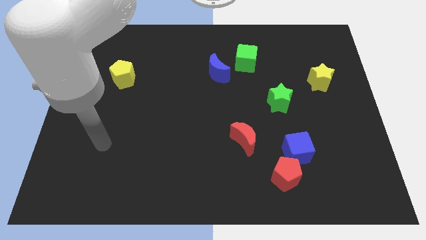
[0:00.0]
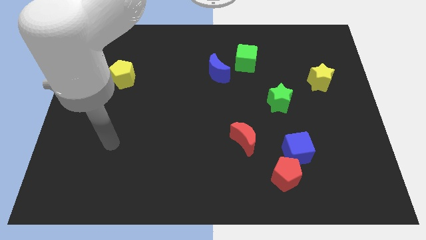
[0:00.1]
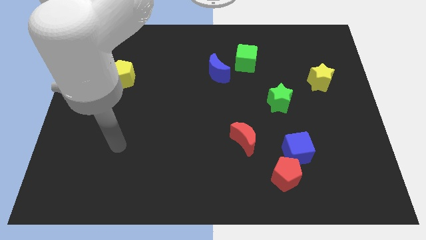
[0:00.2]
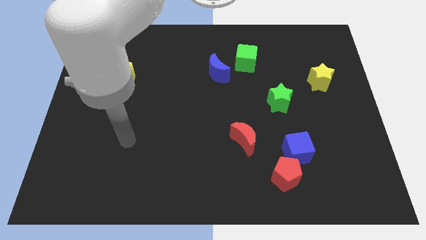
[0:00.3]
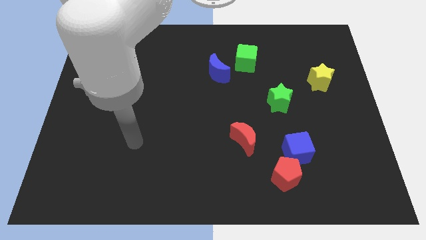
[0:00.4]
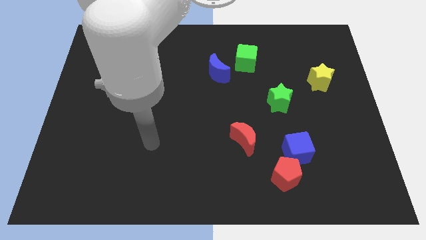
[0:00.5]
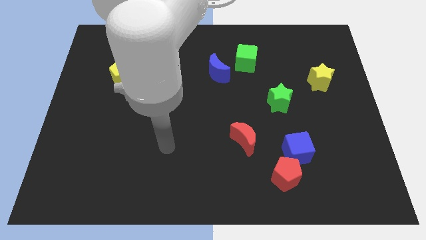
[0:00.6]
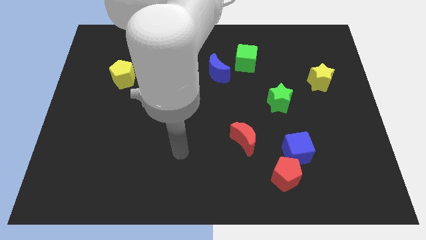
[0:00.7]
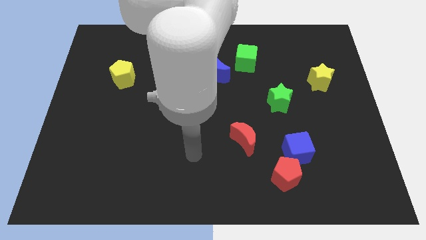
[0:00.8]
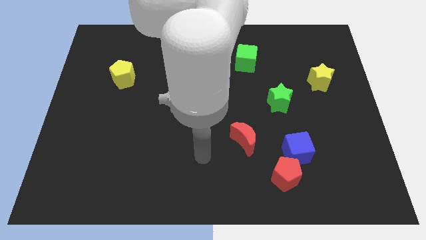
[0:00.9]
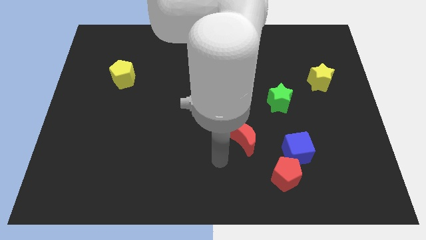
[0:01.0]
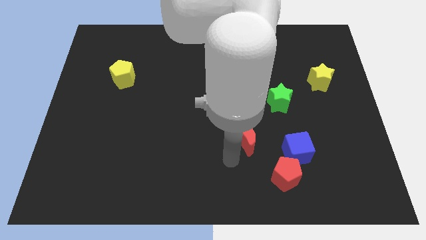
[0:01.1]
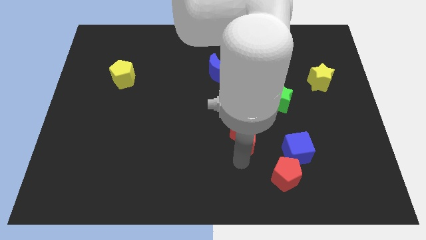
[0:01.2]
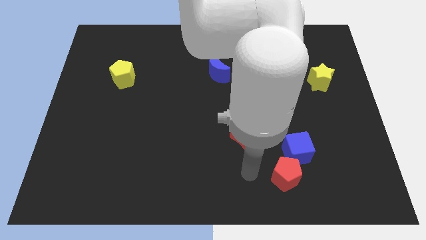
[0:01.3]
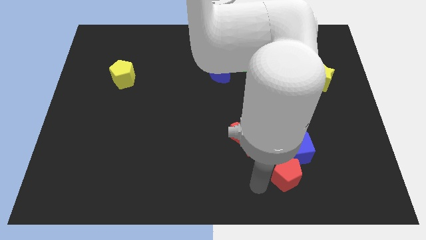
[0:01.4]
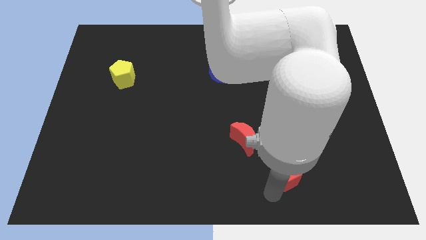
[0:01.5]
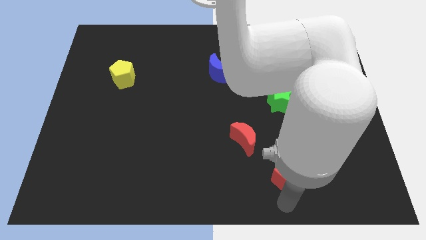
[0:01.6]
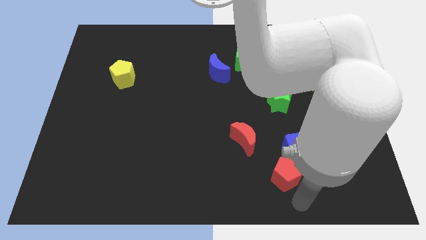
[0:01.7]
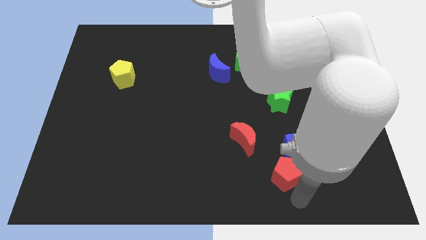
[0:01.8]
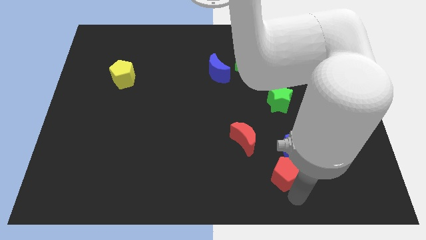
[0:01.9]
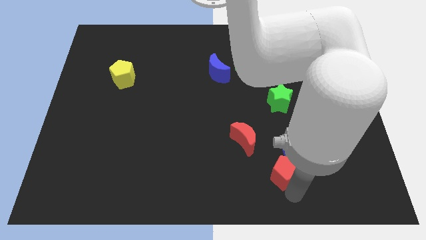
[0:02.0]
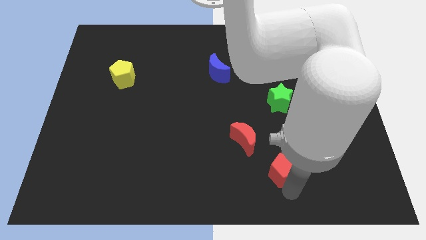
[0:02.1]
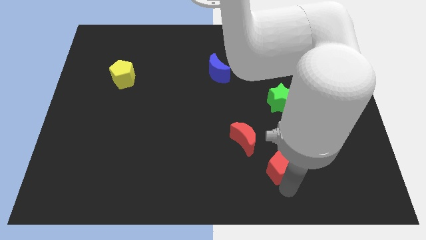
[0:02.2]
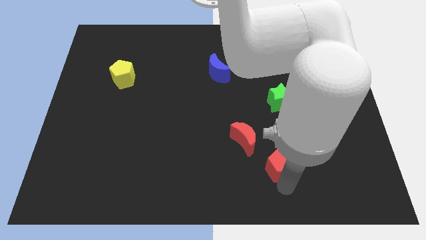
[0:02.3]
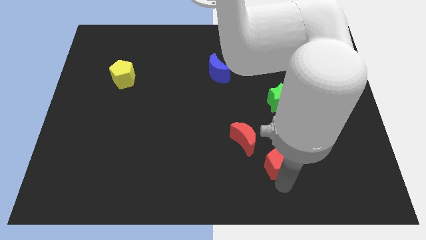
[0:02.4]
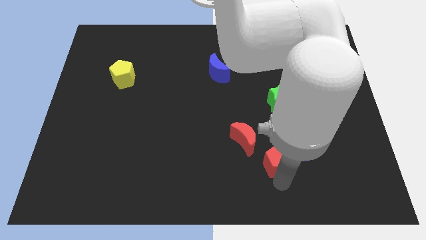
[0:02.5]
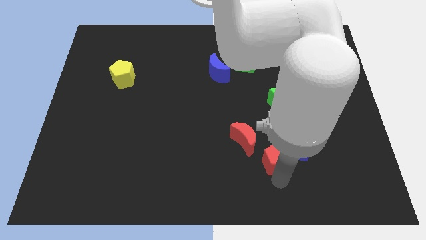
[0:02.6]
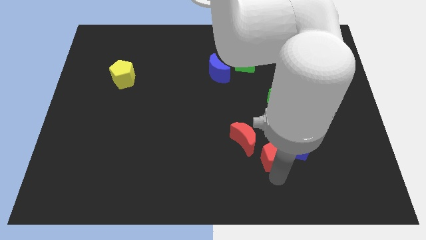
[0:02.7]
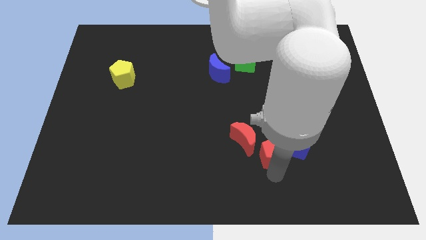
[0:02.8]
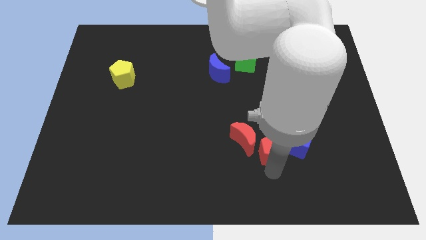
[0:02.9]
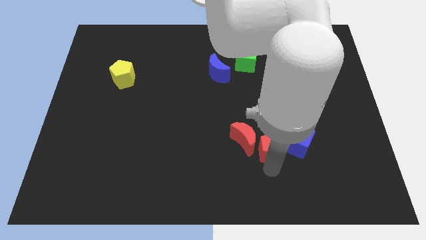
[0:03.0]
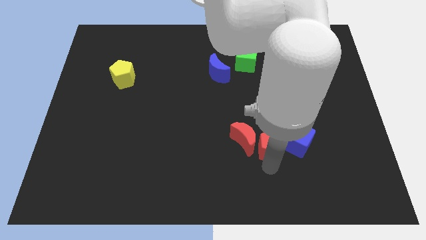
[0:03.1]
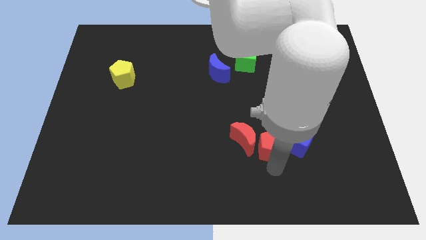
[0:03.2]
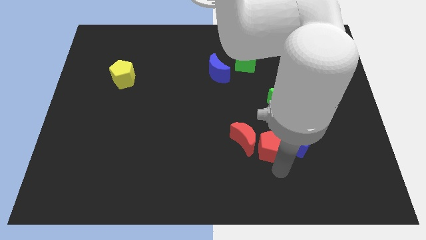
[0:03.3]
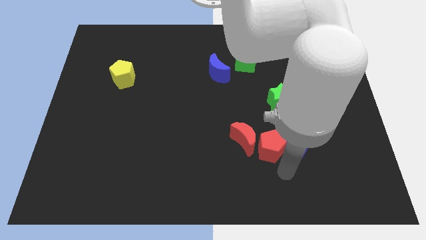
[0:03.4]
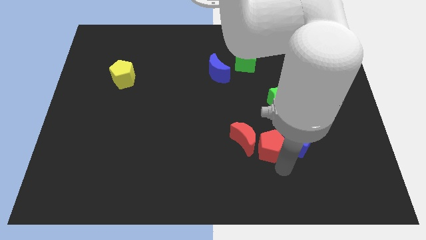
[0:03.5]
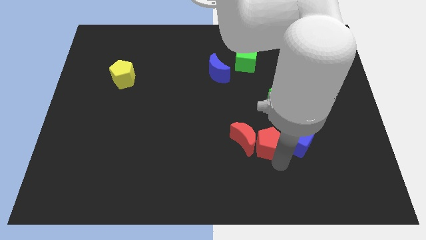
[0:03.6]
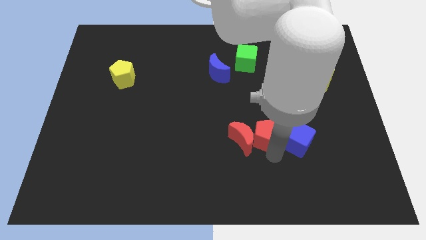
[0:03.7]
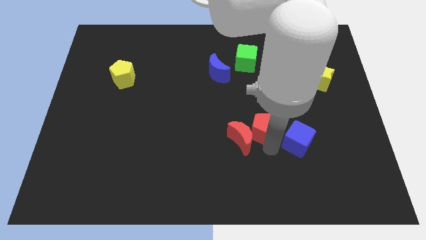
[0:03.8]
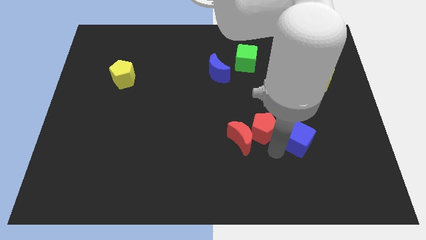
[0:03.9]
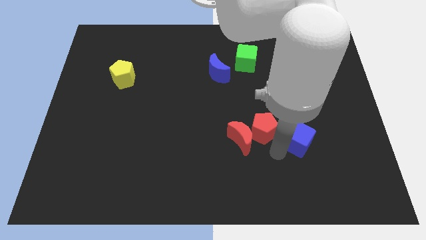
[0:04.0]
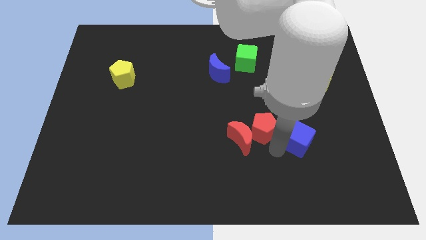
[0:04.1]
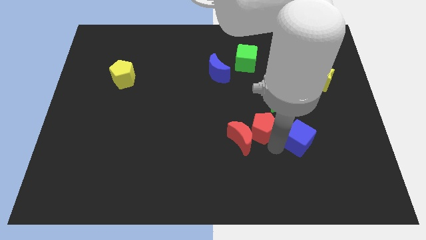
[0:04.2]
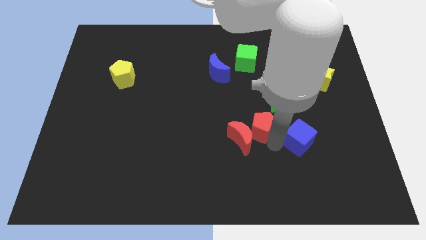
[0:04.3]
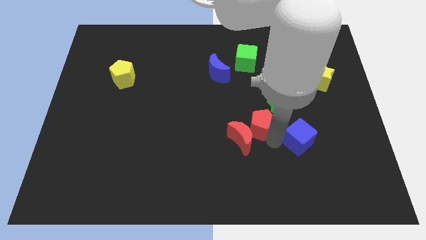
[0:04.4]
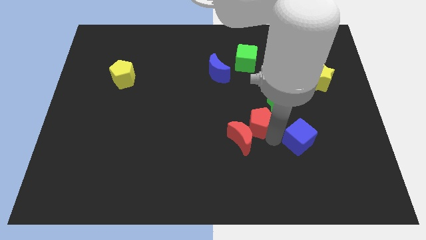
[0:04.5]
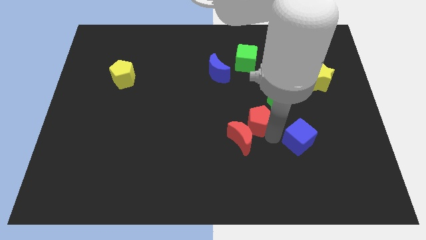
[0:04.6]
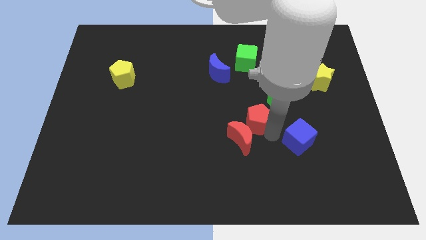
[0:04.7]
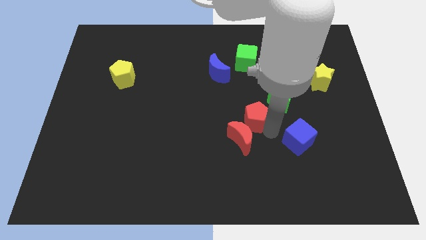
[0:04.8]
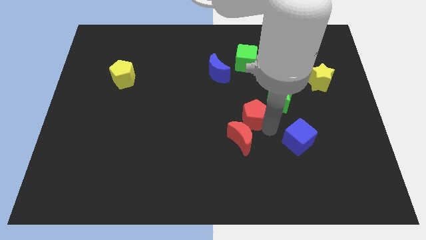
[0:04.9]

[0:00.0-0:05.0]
move the red pentagon to the left side of the green star

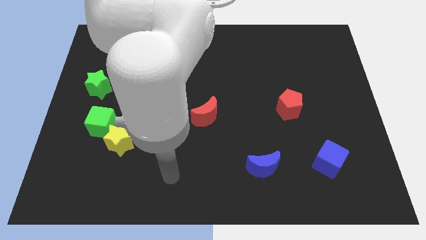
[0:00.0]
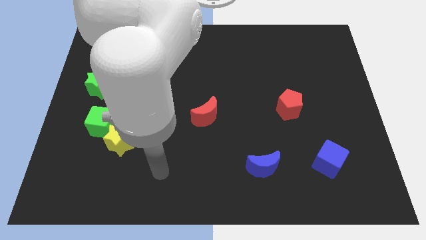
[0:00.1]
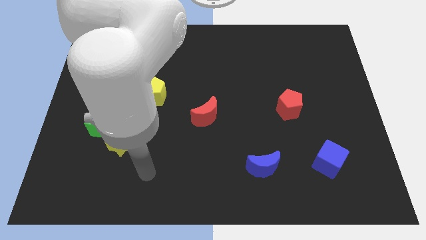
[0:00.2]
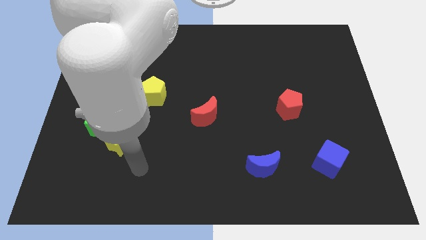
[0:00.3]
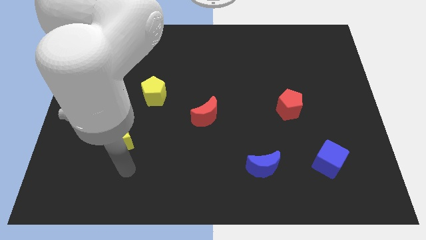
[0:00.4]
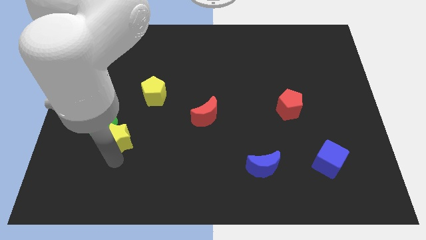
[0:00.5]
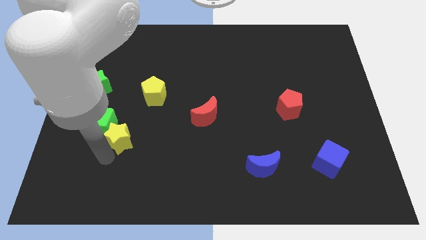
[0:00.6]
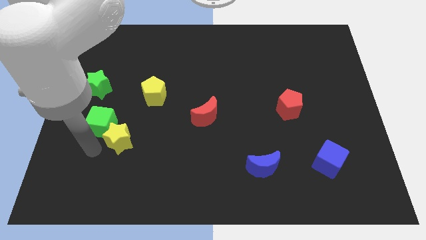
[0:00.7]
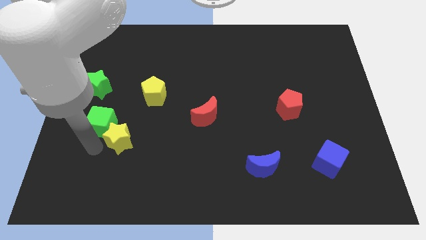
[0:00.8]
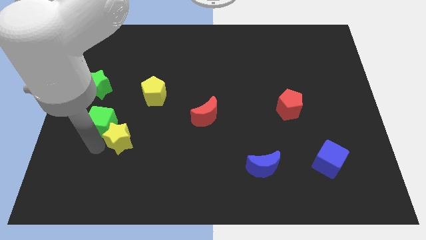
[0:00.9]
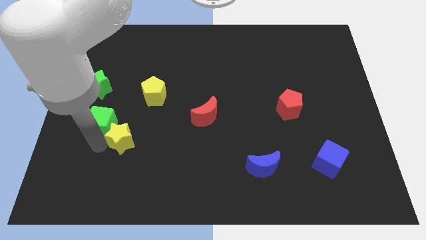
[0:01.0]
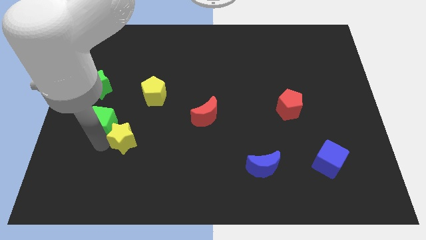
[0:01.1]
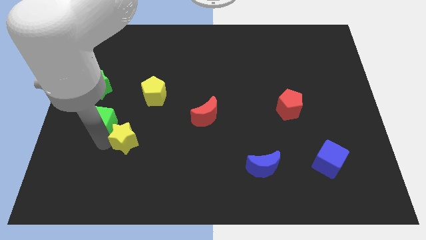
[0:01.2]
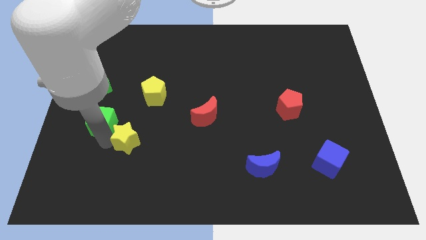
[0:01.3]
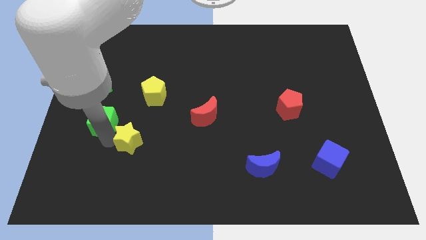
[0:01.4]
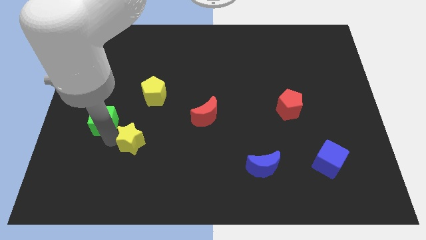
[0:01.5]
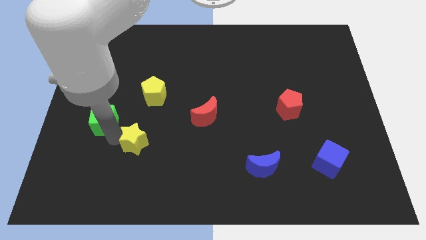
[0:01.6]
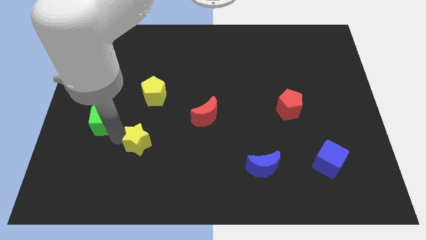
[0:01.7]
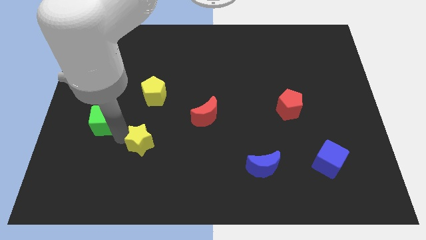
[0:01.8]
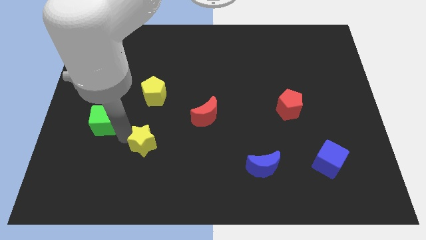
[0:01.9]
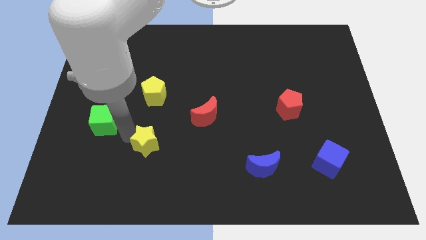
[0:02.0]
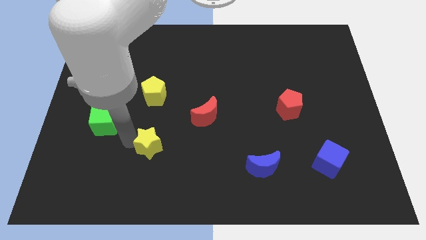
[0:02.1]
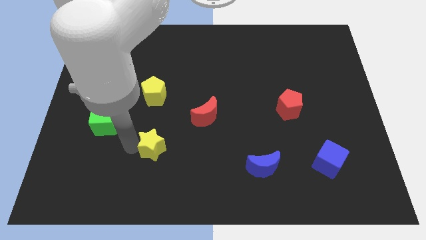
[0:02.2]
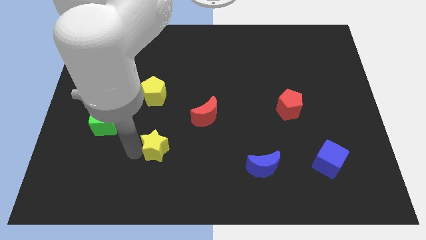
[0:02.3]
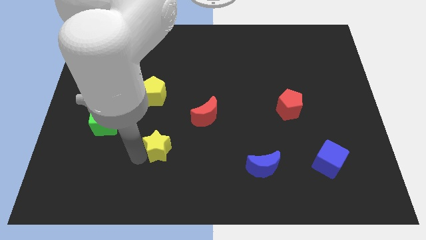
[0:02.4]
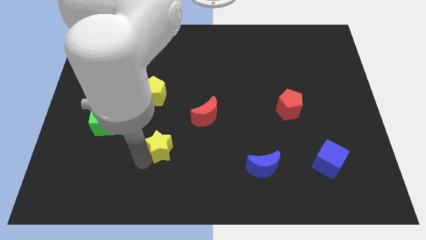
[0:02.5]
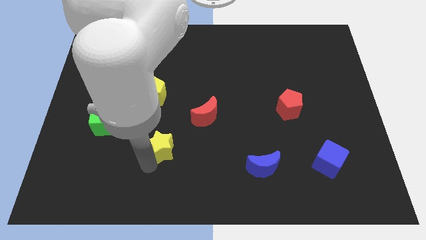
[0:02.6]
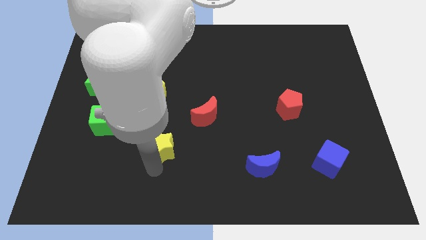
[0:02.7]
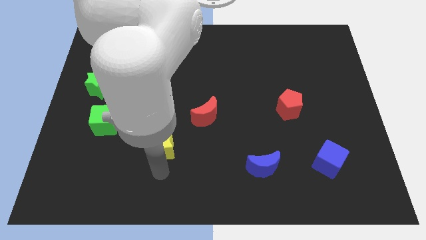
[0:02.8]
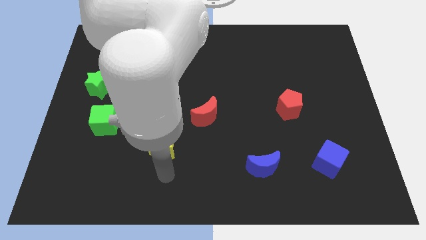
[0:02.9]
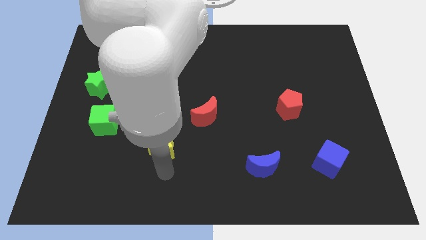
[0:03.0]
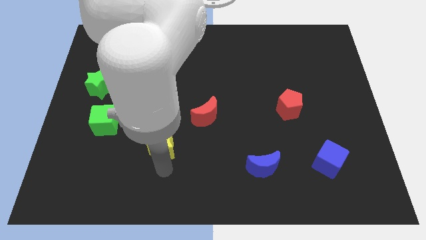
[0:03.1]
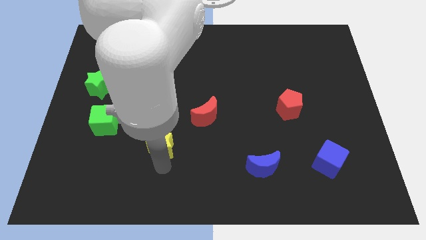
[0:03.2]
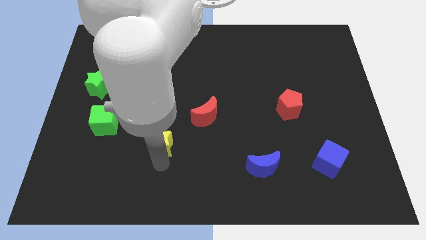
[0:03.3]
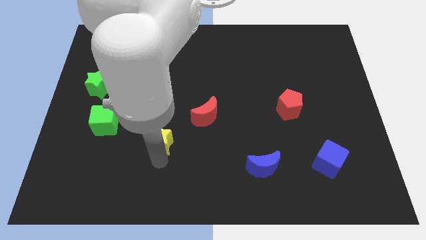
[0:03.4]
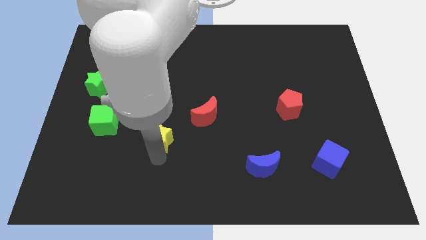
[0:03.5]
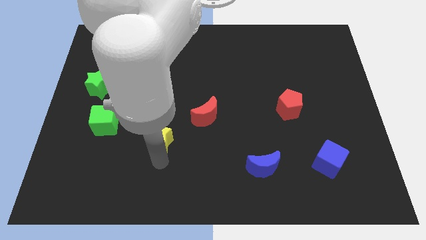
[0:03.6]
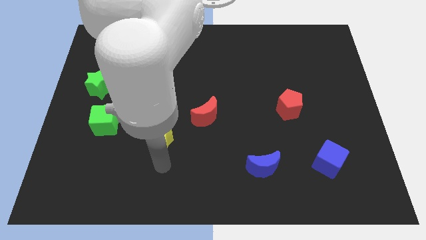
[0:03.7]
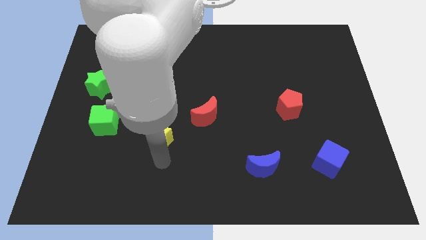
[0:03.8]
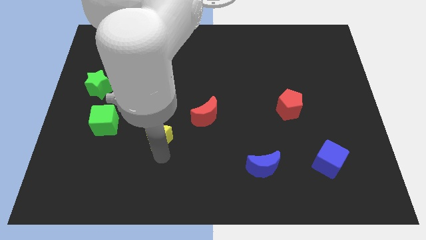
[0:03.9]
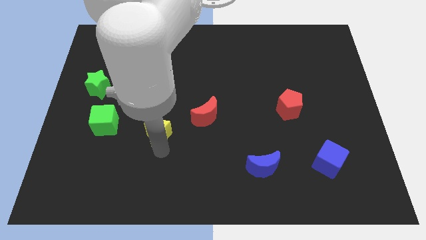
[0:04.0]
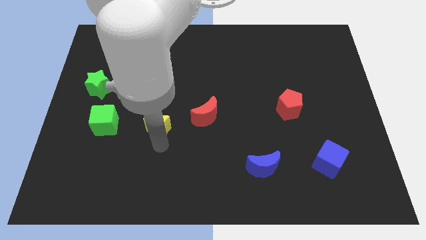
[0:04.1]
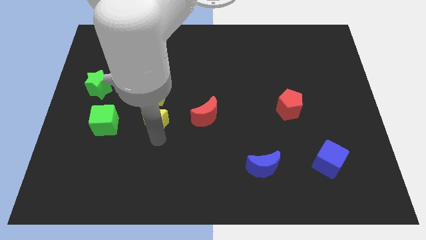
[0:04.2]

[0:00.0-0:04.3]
move the yellow star diagonally down and to the right of the yellow pentagon
